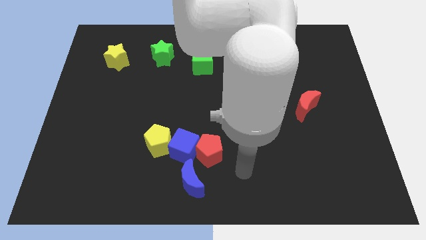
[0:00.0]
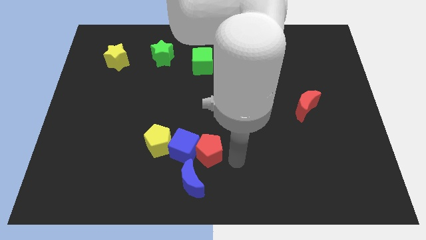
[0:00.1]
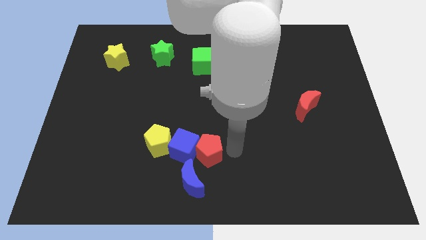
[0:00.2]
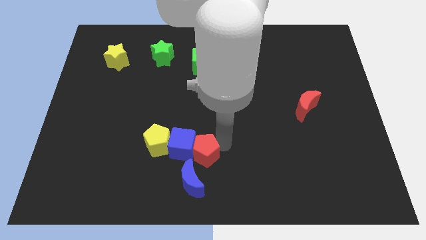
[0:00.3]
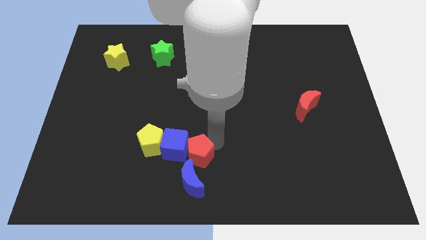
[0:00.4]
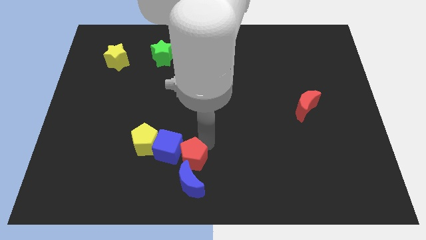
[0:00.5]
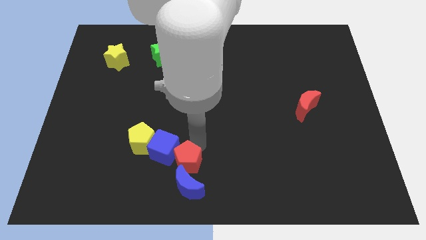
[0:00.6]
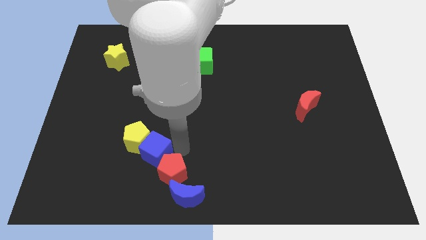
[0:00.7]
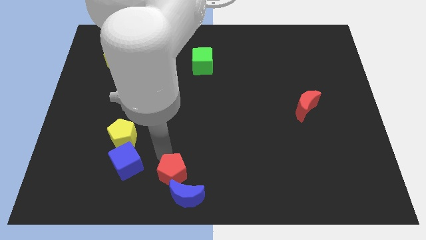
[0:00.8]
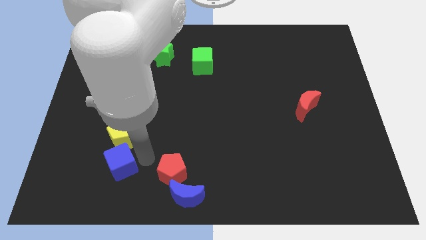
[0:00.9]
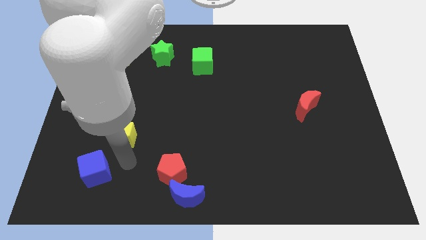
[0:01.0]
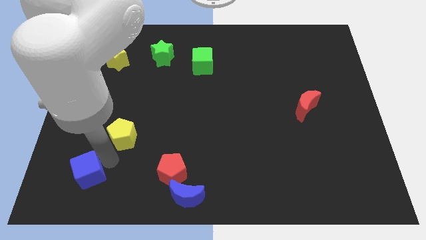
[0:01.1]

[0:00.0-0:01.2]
separate the yellow pentagon from the blue cube

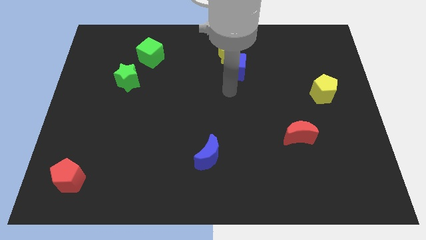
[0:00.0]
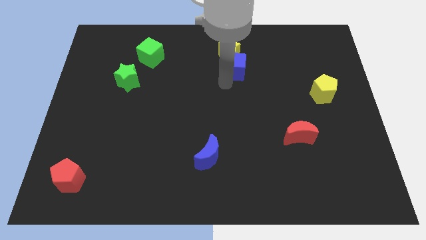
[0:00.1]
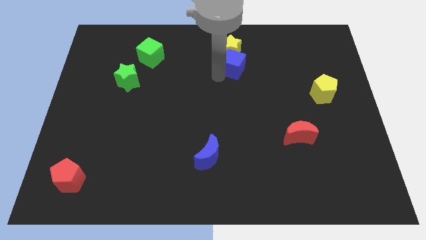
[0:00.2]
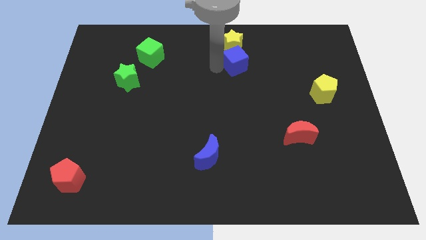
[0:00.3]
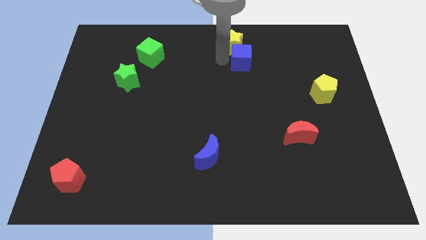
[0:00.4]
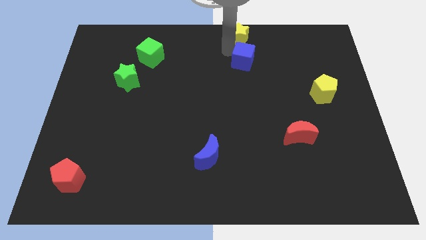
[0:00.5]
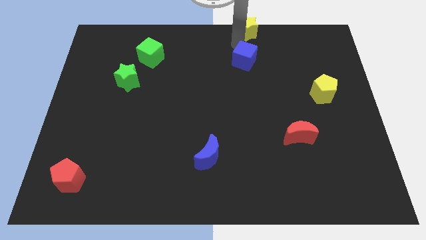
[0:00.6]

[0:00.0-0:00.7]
pull the blue cube apart from the yellow star

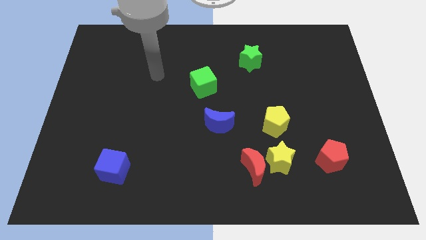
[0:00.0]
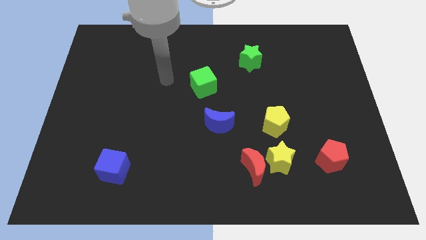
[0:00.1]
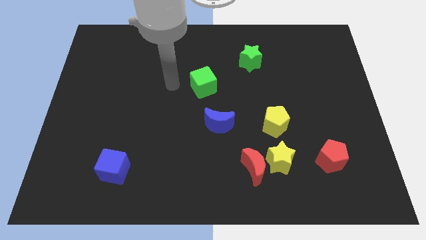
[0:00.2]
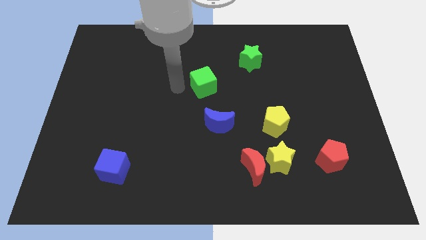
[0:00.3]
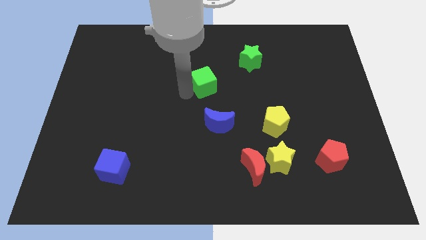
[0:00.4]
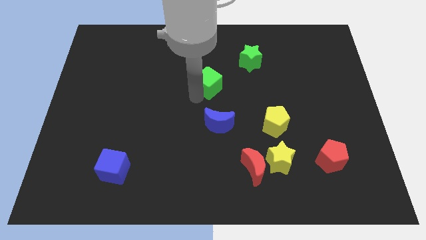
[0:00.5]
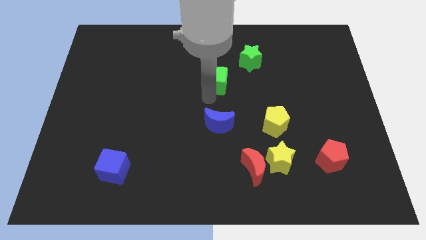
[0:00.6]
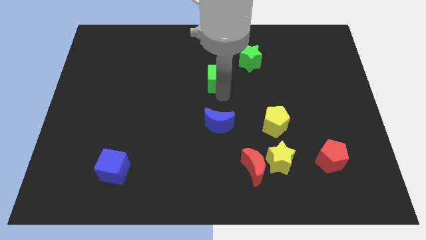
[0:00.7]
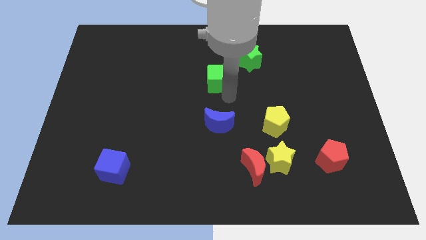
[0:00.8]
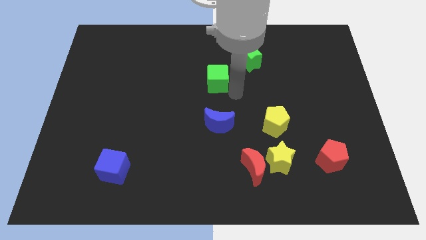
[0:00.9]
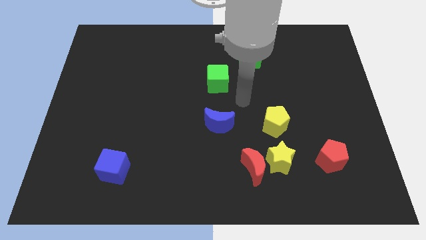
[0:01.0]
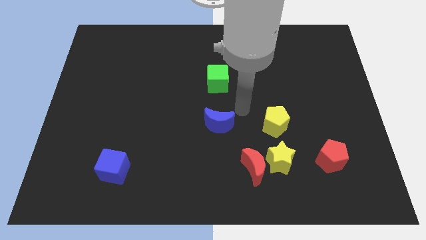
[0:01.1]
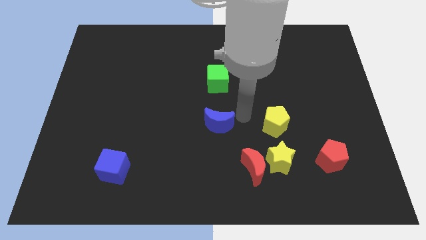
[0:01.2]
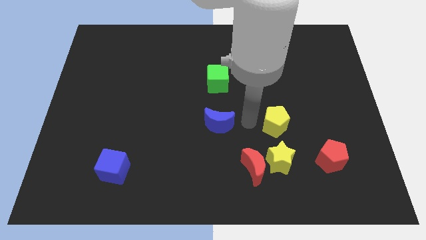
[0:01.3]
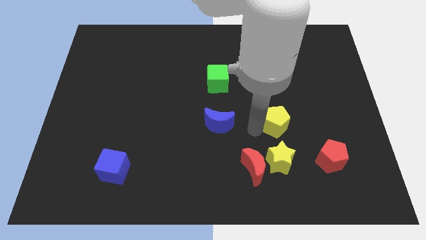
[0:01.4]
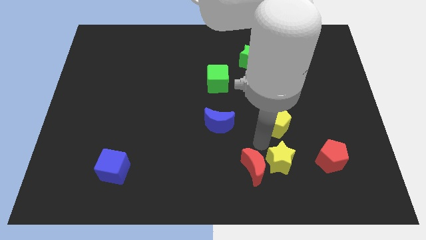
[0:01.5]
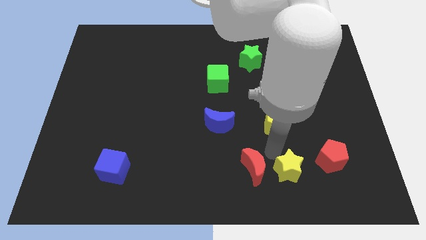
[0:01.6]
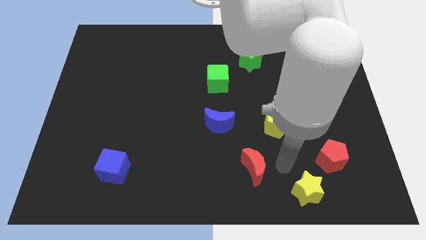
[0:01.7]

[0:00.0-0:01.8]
separate the red moon from the yellow star

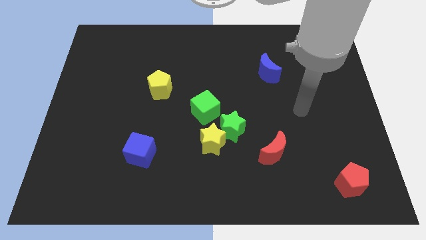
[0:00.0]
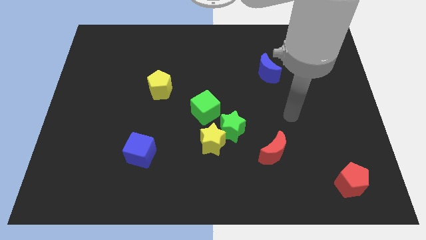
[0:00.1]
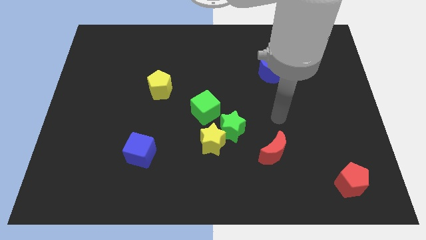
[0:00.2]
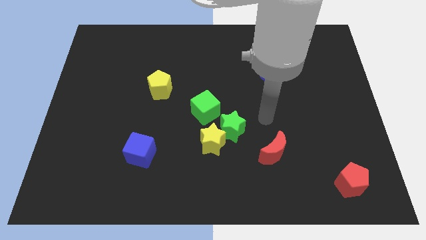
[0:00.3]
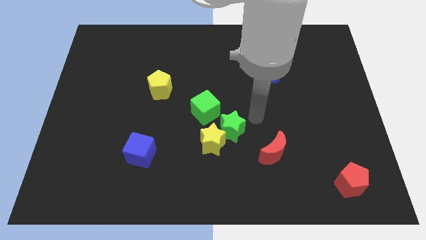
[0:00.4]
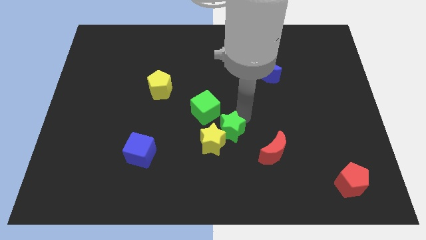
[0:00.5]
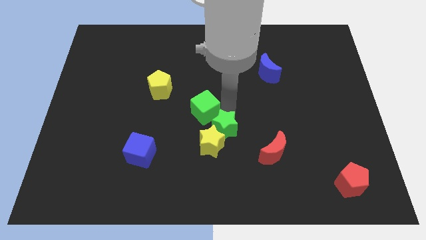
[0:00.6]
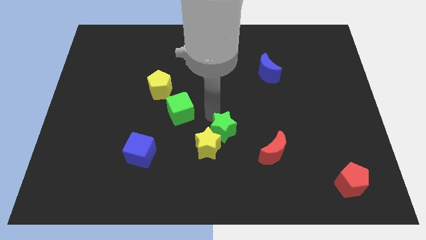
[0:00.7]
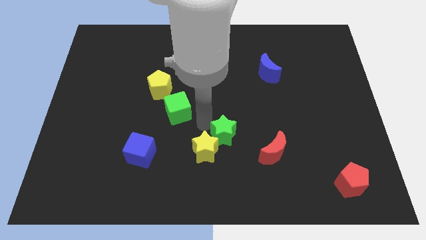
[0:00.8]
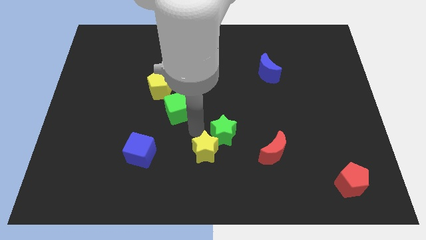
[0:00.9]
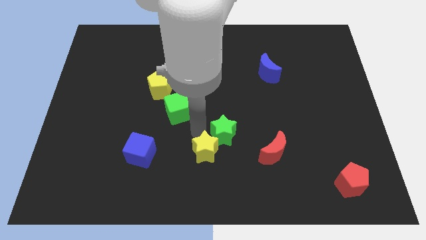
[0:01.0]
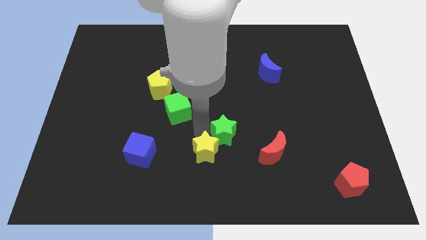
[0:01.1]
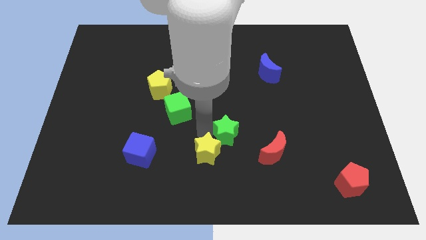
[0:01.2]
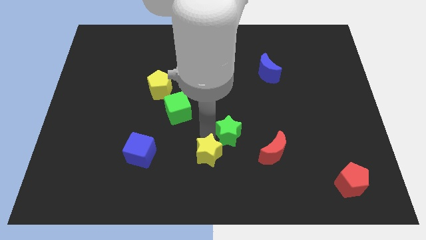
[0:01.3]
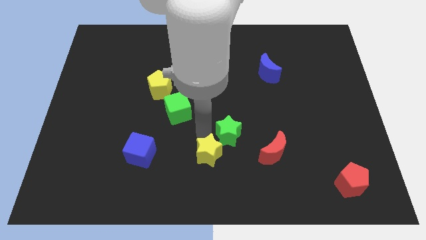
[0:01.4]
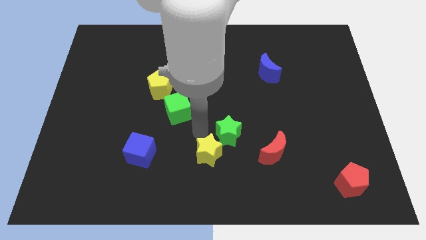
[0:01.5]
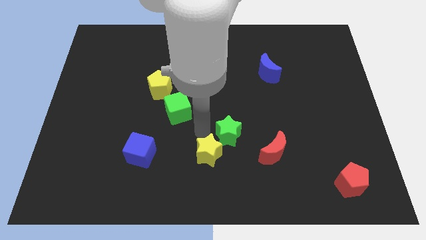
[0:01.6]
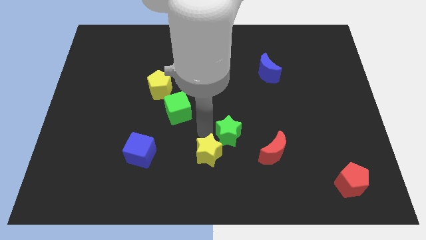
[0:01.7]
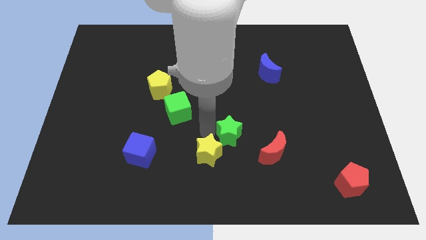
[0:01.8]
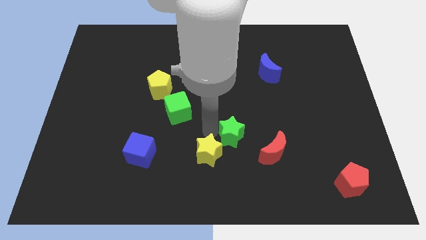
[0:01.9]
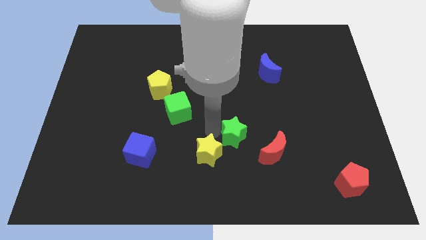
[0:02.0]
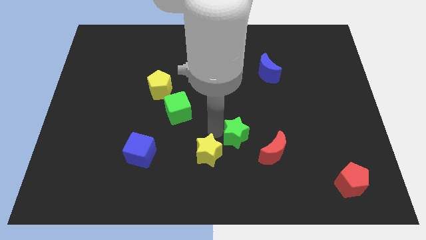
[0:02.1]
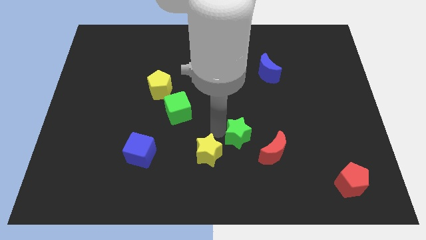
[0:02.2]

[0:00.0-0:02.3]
separate the green star from the yellow star and green cube

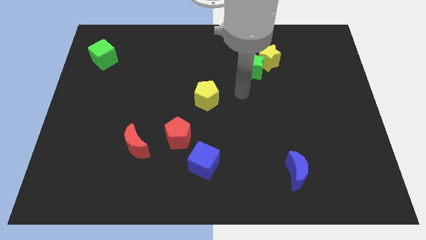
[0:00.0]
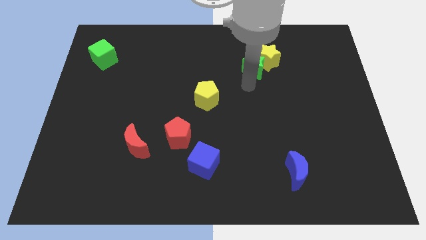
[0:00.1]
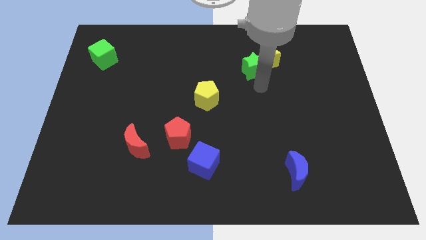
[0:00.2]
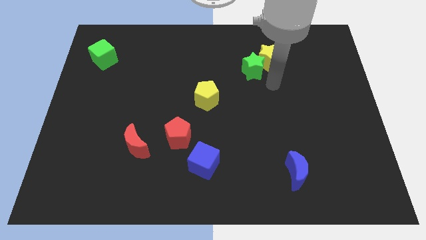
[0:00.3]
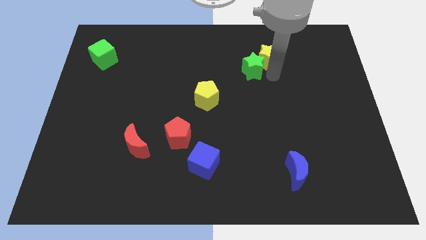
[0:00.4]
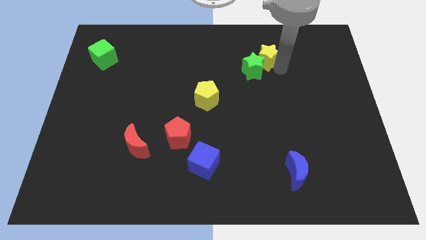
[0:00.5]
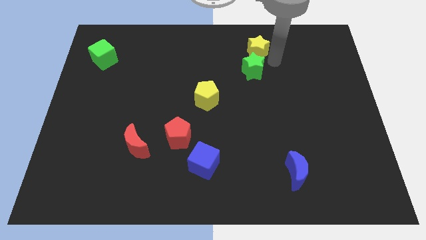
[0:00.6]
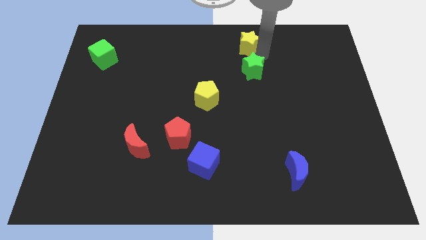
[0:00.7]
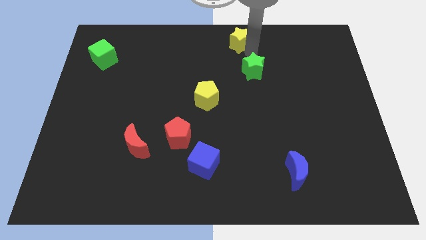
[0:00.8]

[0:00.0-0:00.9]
separate the green star from the yellow star

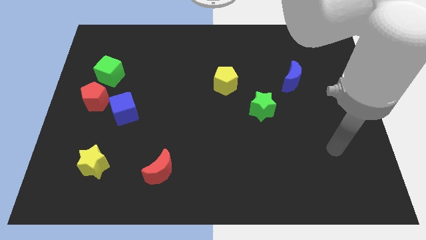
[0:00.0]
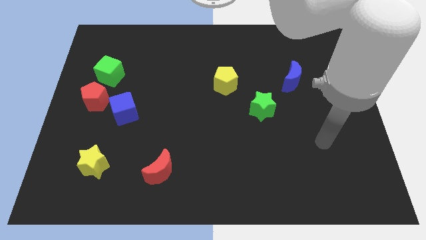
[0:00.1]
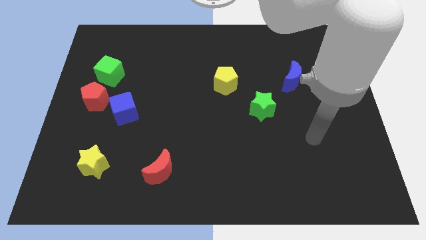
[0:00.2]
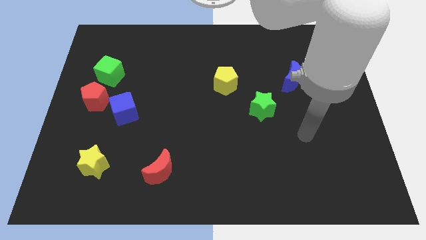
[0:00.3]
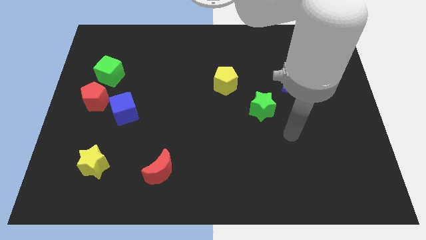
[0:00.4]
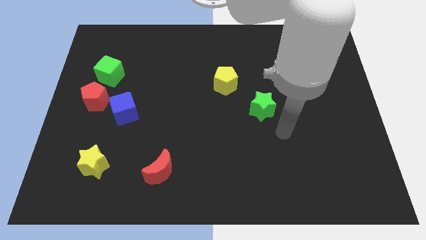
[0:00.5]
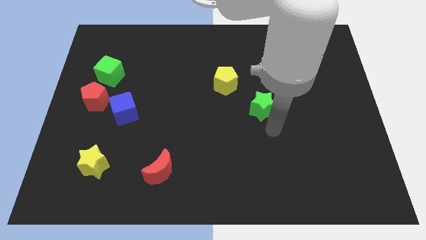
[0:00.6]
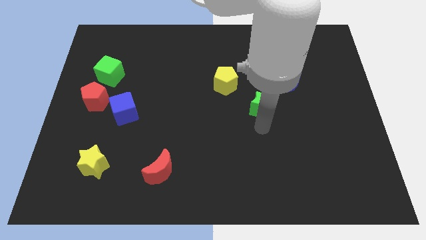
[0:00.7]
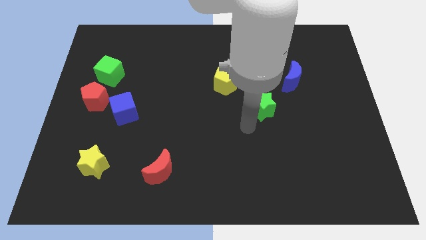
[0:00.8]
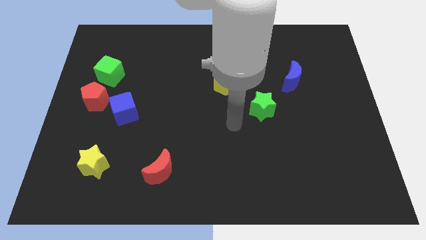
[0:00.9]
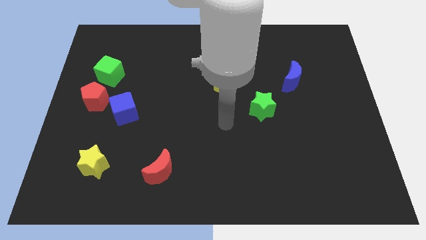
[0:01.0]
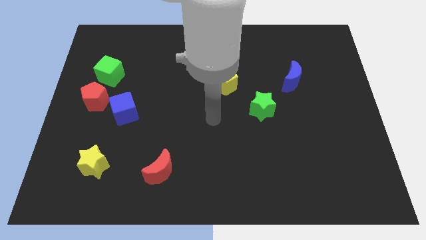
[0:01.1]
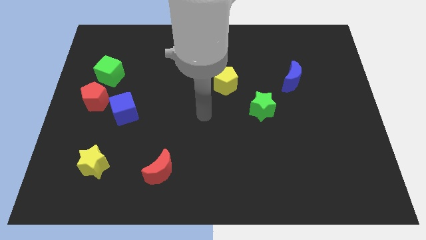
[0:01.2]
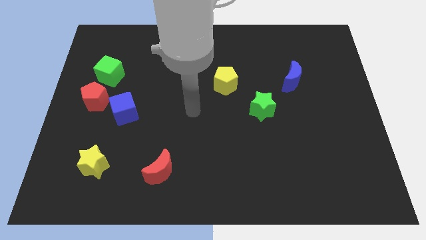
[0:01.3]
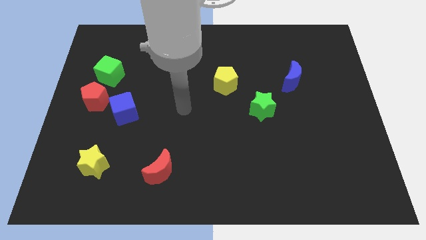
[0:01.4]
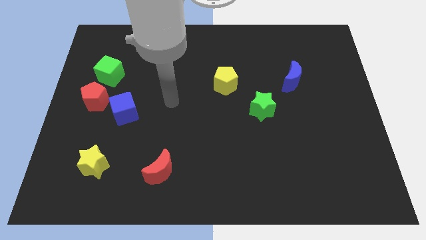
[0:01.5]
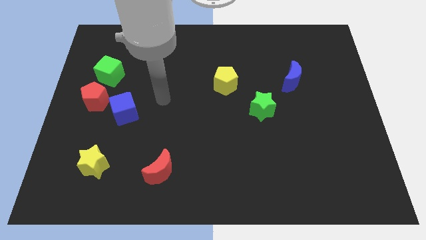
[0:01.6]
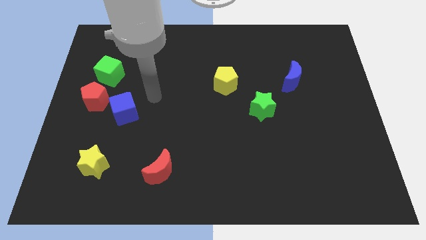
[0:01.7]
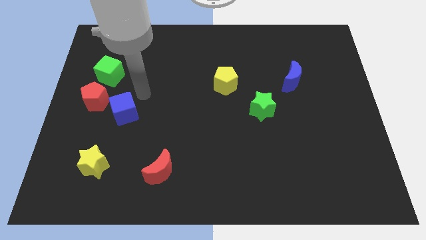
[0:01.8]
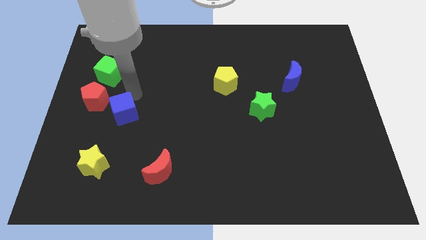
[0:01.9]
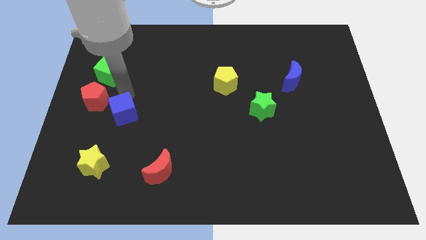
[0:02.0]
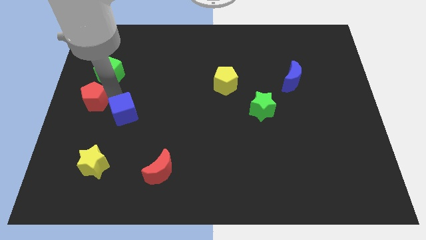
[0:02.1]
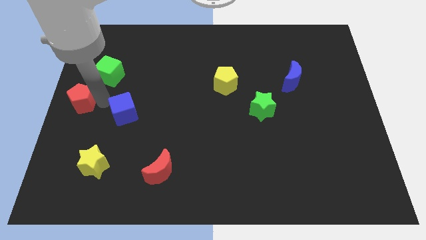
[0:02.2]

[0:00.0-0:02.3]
separate the blue cube from the red pentagon

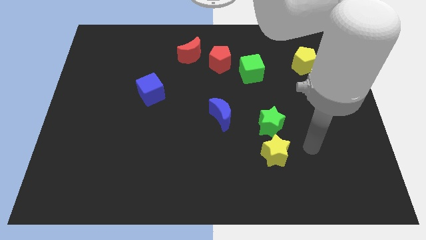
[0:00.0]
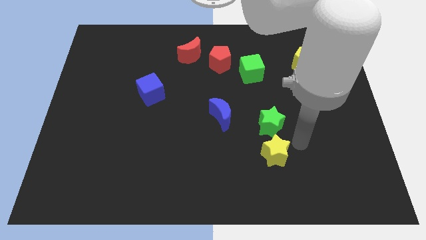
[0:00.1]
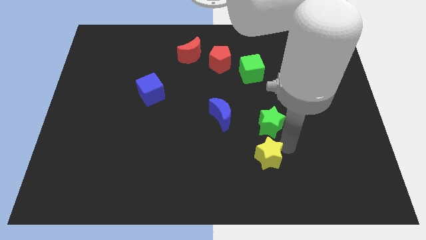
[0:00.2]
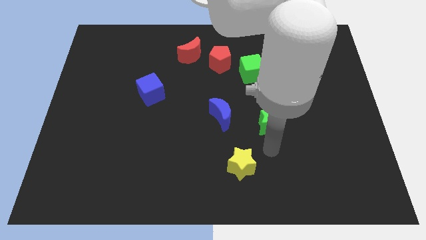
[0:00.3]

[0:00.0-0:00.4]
move the green star away from the yellow star
